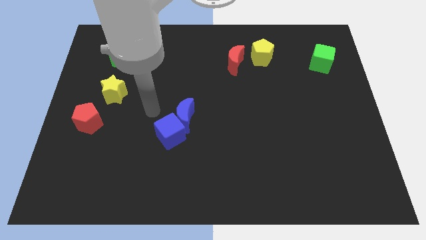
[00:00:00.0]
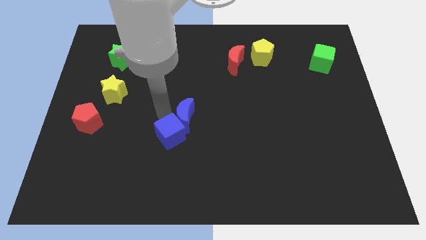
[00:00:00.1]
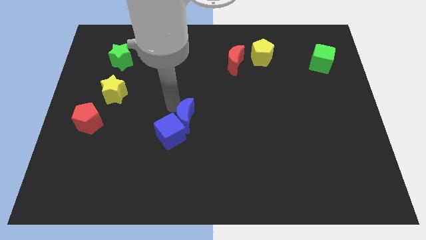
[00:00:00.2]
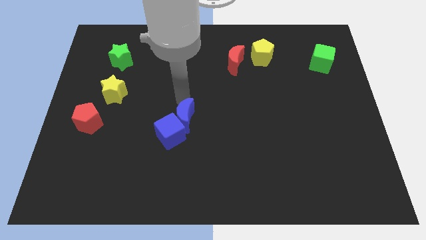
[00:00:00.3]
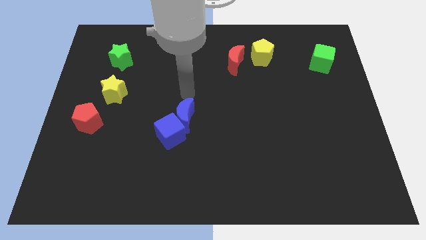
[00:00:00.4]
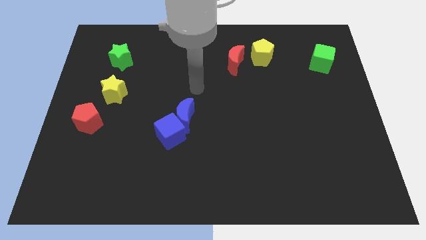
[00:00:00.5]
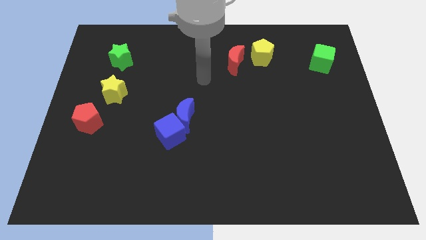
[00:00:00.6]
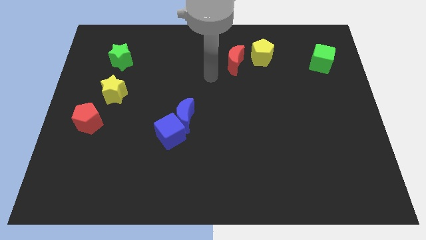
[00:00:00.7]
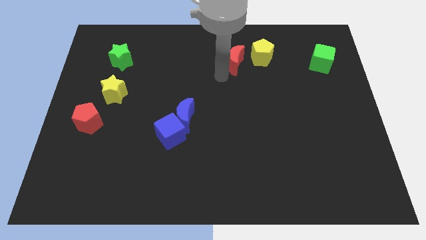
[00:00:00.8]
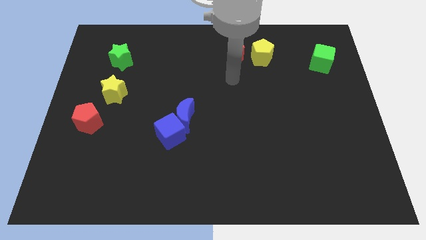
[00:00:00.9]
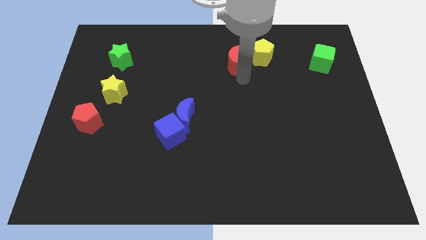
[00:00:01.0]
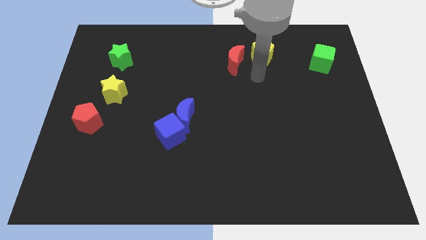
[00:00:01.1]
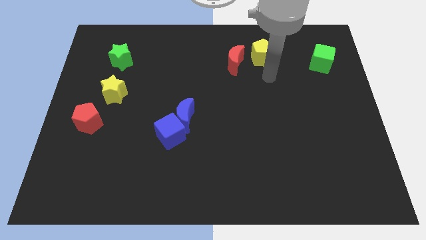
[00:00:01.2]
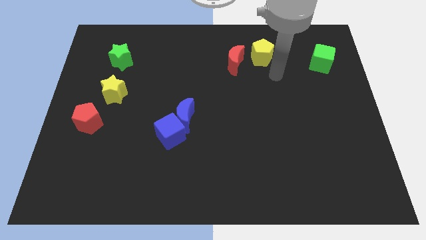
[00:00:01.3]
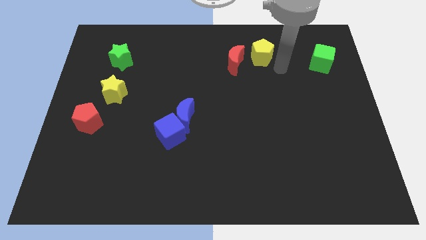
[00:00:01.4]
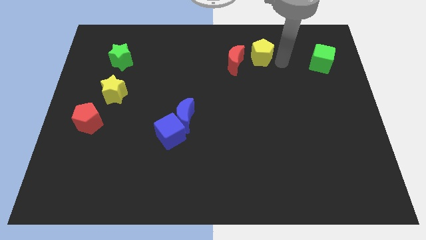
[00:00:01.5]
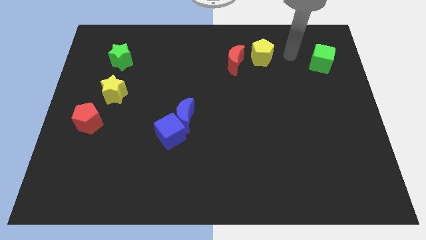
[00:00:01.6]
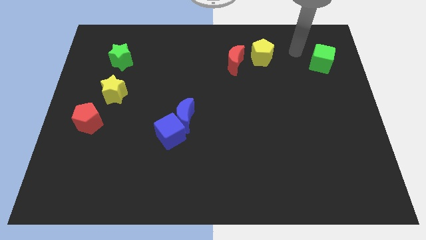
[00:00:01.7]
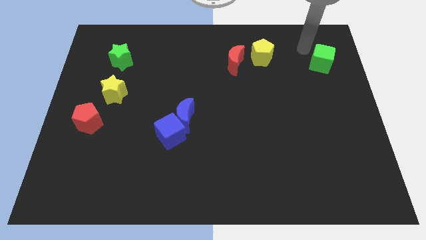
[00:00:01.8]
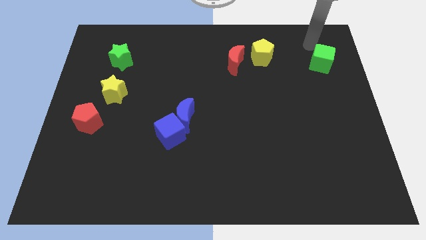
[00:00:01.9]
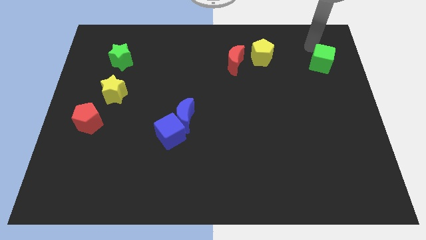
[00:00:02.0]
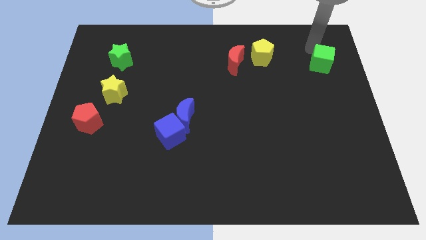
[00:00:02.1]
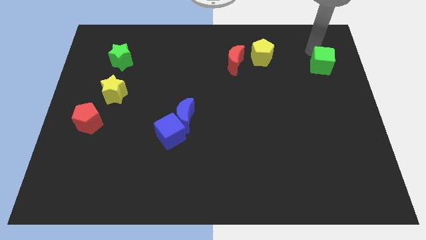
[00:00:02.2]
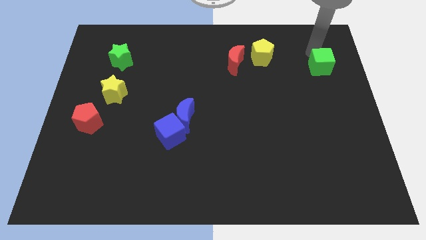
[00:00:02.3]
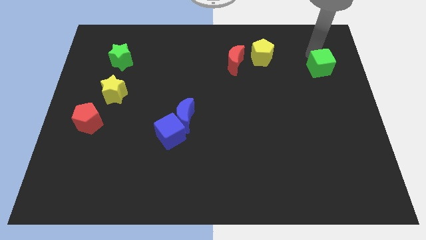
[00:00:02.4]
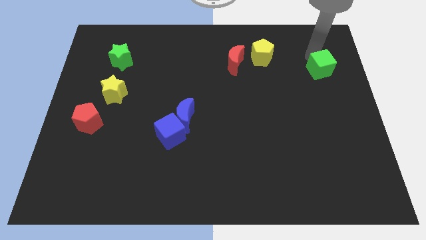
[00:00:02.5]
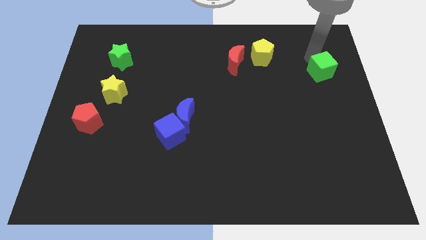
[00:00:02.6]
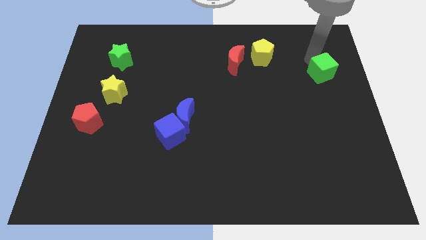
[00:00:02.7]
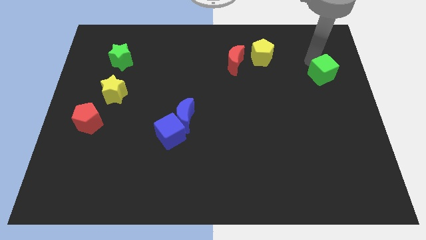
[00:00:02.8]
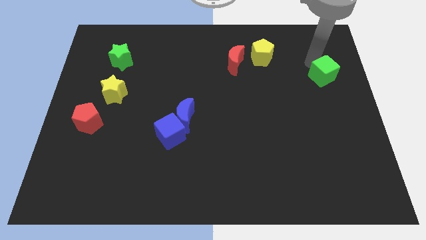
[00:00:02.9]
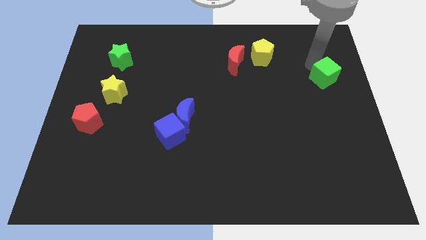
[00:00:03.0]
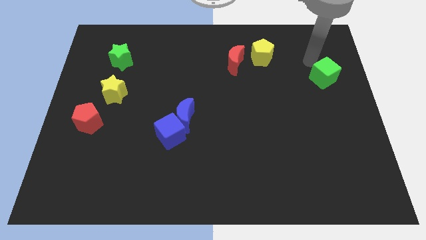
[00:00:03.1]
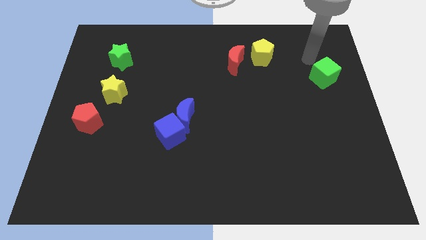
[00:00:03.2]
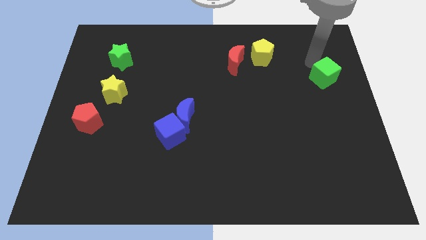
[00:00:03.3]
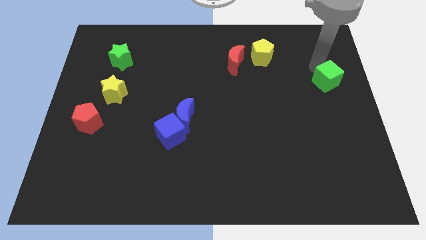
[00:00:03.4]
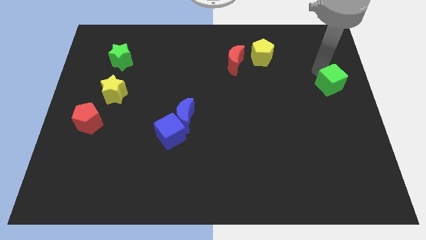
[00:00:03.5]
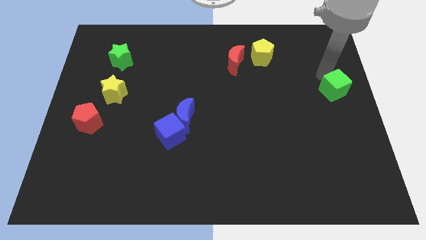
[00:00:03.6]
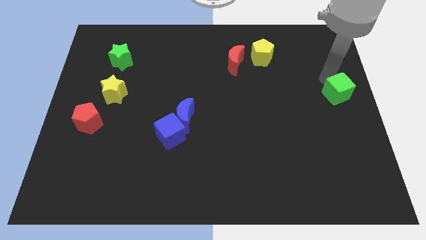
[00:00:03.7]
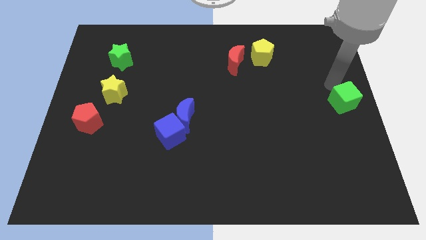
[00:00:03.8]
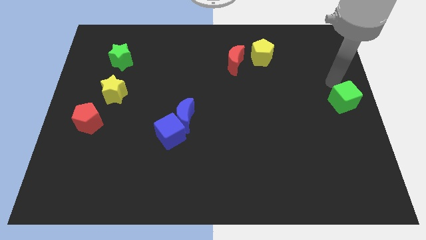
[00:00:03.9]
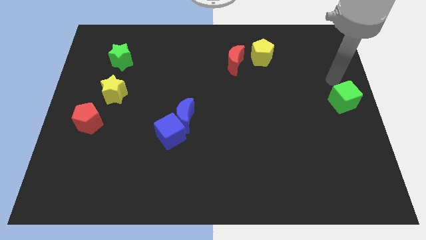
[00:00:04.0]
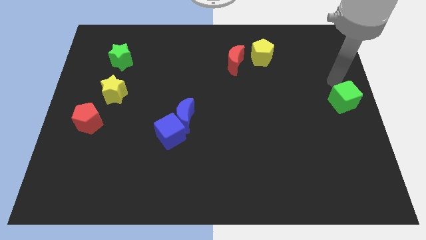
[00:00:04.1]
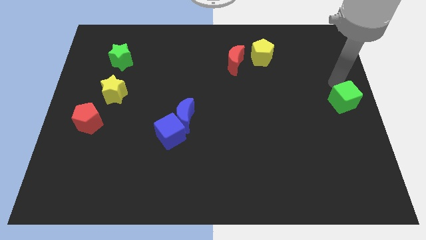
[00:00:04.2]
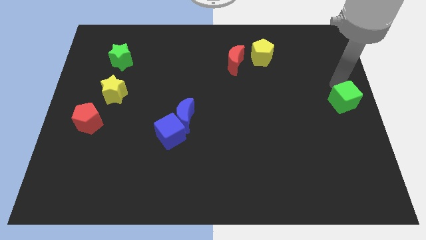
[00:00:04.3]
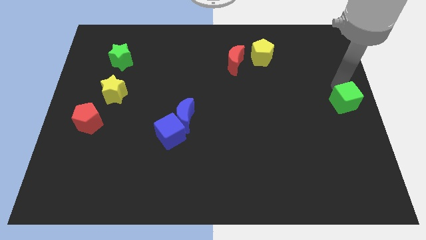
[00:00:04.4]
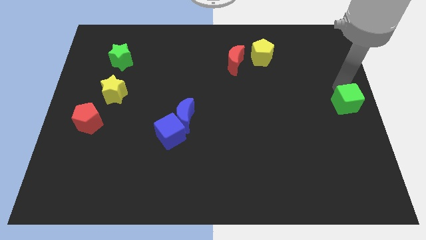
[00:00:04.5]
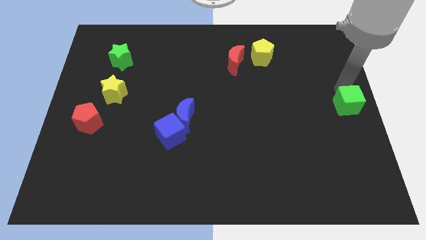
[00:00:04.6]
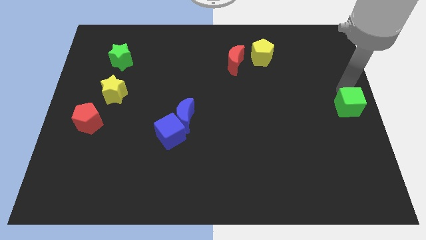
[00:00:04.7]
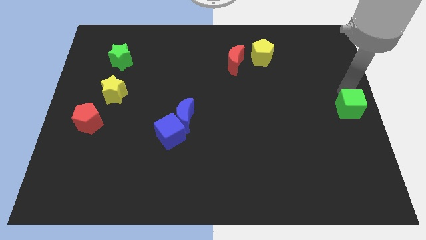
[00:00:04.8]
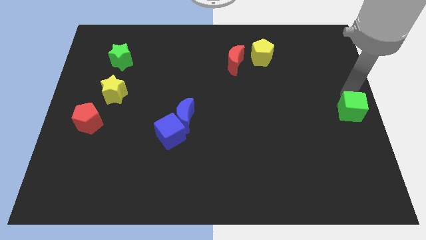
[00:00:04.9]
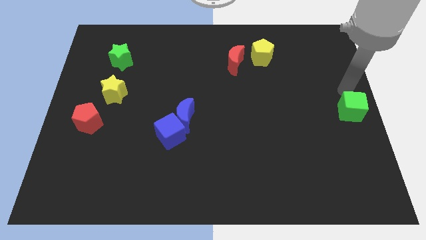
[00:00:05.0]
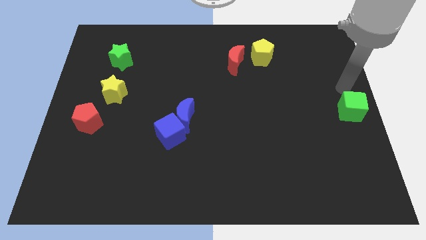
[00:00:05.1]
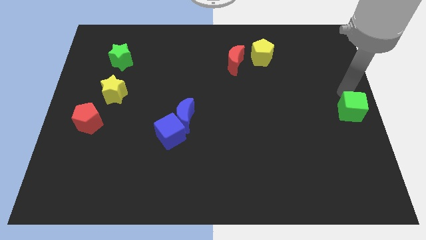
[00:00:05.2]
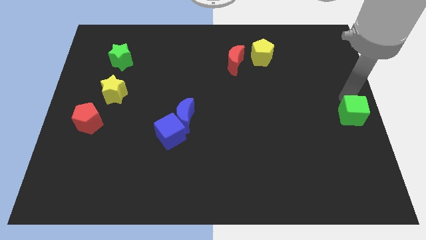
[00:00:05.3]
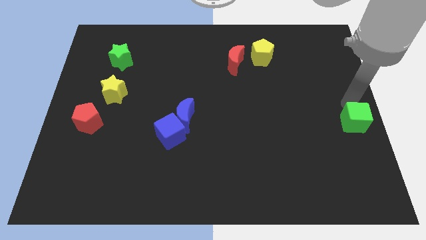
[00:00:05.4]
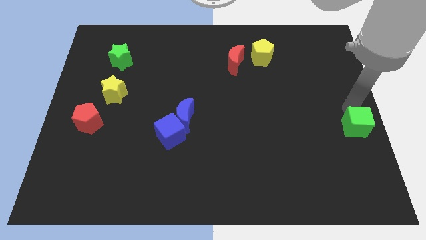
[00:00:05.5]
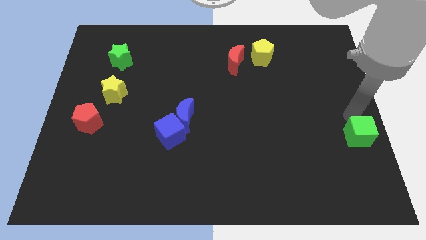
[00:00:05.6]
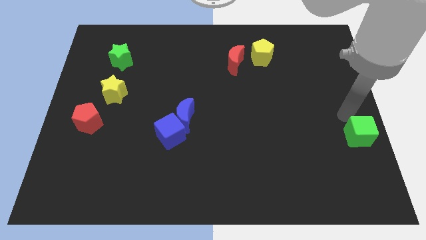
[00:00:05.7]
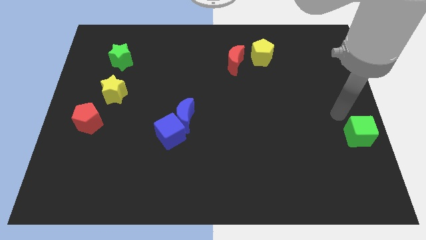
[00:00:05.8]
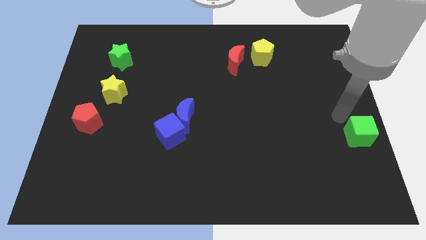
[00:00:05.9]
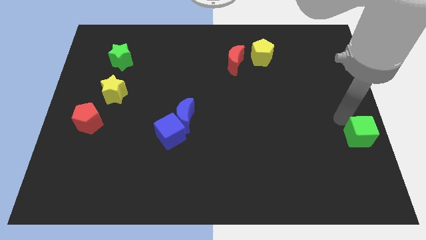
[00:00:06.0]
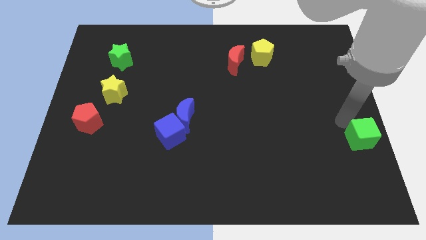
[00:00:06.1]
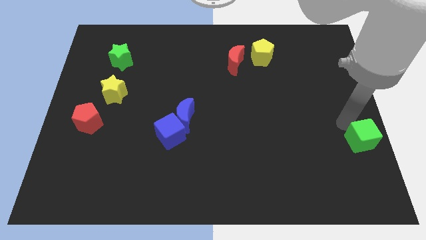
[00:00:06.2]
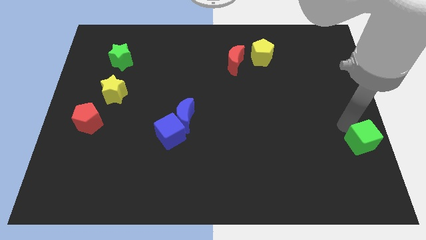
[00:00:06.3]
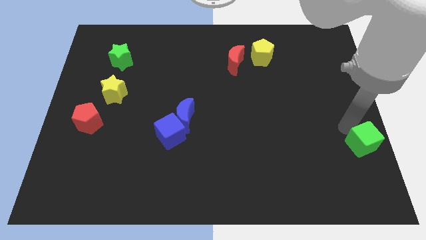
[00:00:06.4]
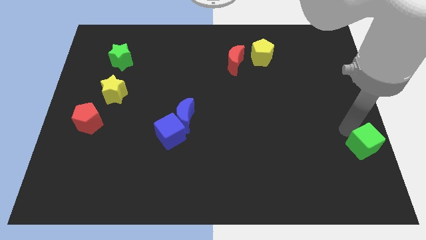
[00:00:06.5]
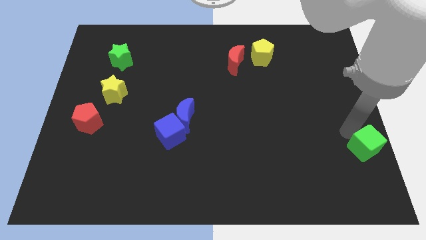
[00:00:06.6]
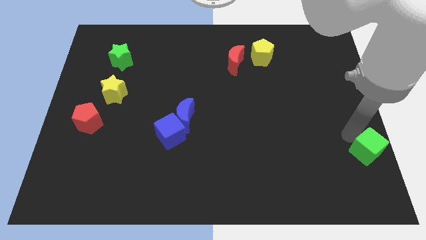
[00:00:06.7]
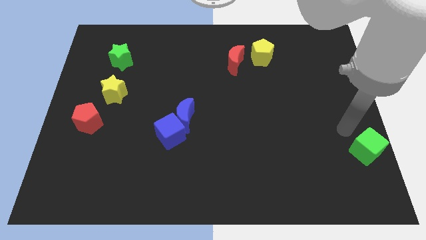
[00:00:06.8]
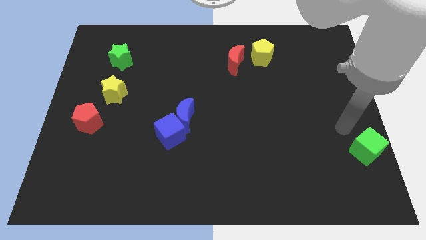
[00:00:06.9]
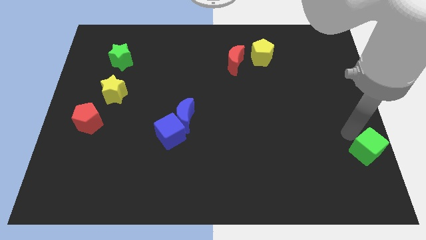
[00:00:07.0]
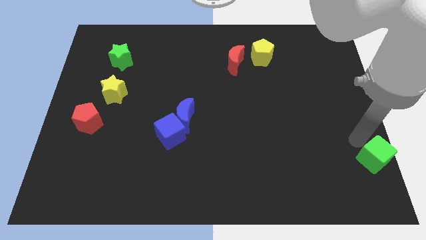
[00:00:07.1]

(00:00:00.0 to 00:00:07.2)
move the green cube to the bottom right corner
